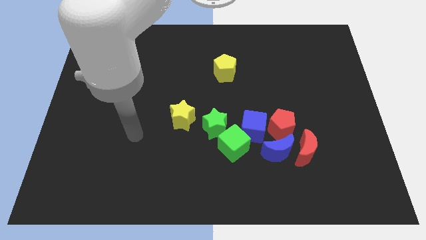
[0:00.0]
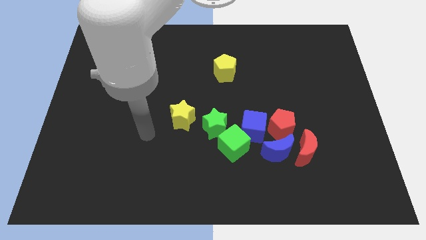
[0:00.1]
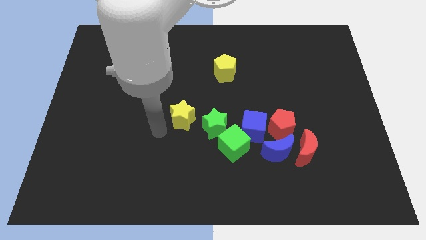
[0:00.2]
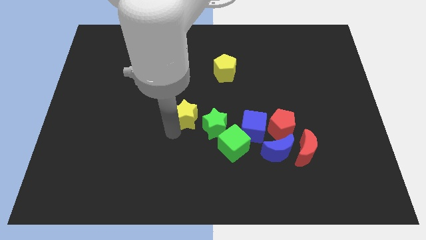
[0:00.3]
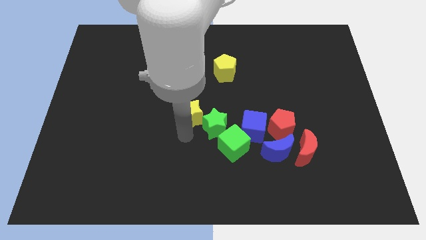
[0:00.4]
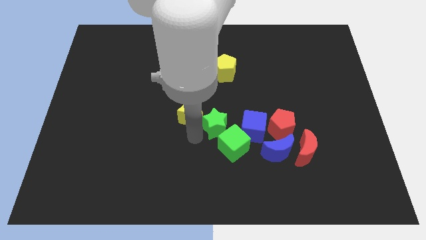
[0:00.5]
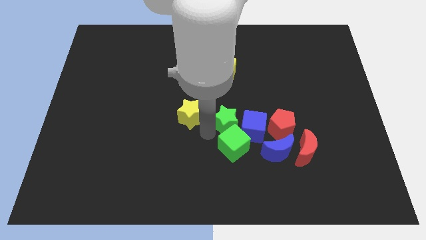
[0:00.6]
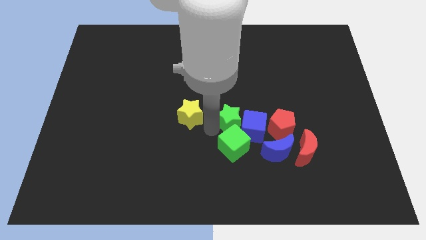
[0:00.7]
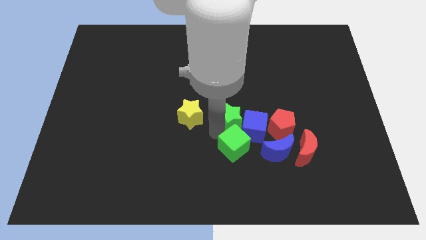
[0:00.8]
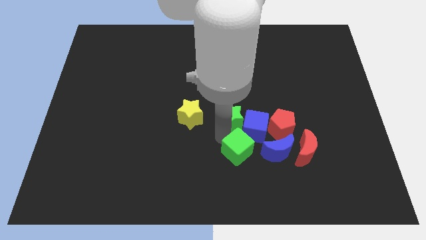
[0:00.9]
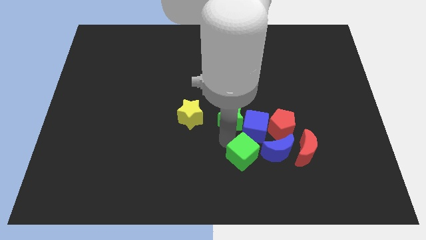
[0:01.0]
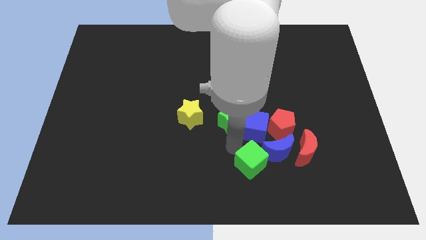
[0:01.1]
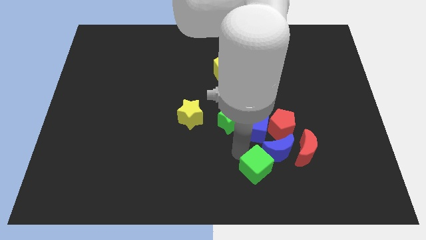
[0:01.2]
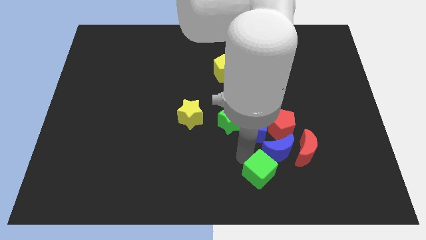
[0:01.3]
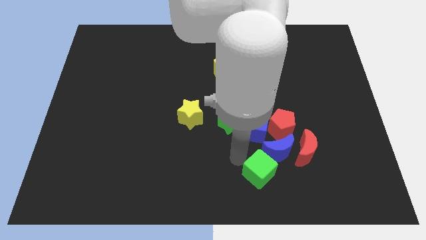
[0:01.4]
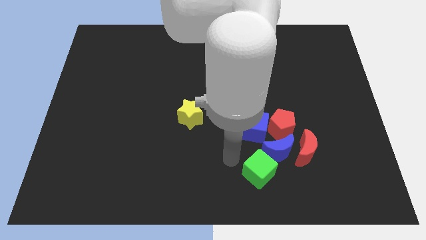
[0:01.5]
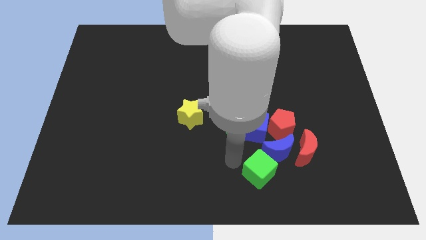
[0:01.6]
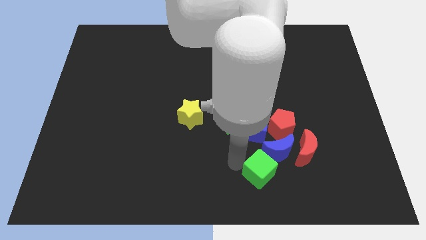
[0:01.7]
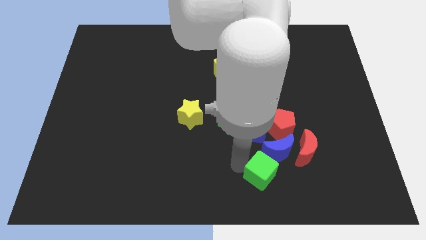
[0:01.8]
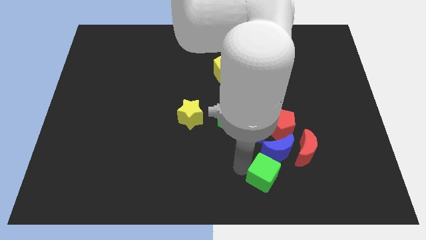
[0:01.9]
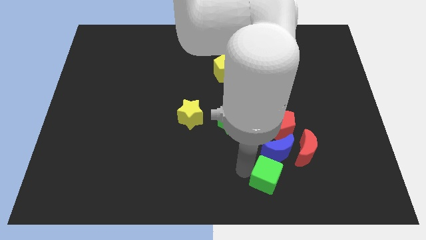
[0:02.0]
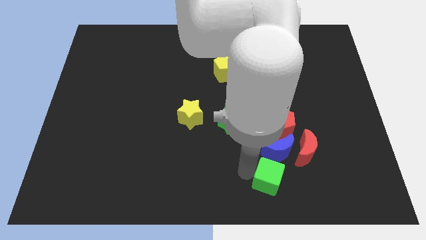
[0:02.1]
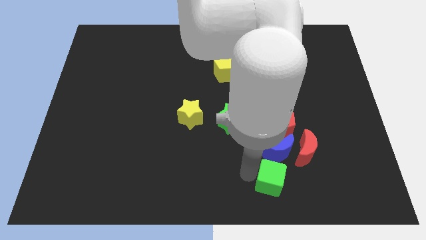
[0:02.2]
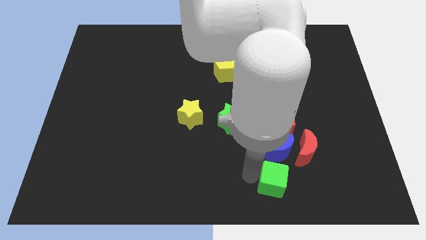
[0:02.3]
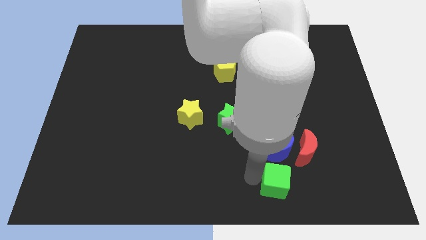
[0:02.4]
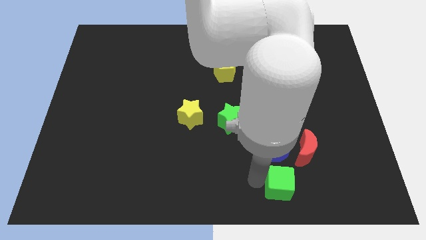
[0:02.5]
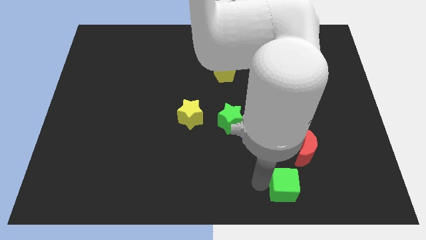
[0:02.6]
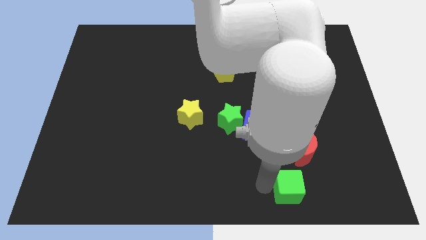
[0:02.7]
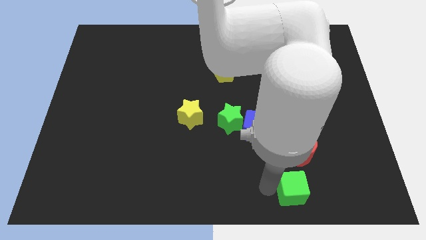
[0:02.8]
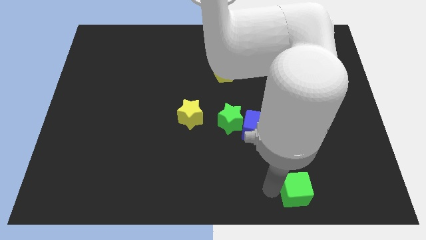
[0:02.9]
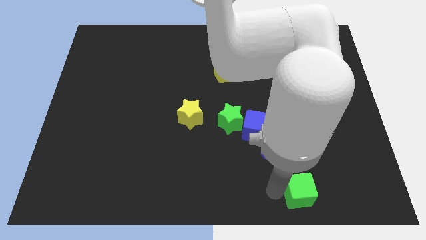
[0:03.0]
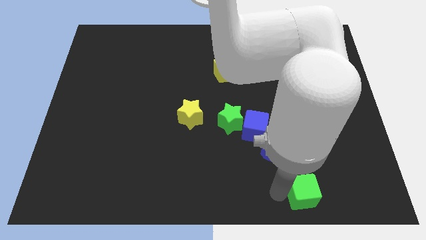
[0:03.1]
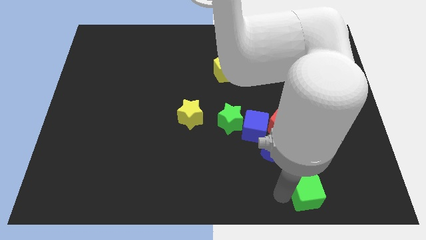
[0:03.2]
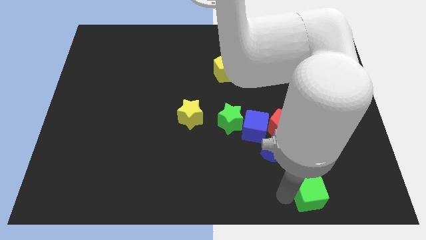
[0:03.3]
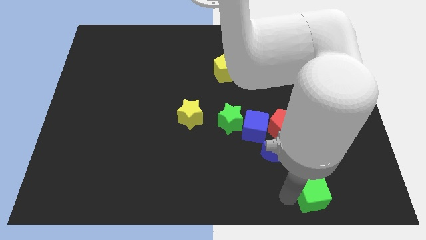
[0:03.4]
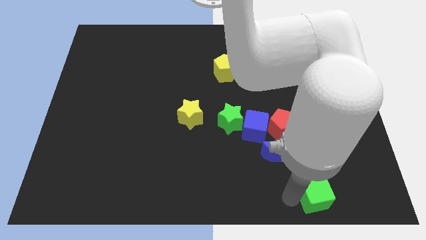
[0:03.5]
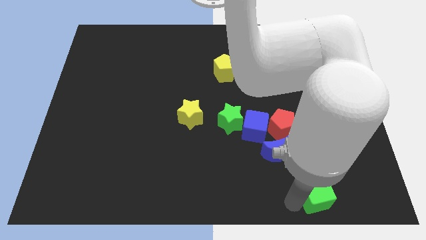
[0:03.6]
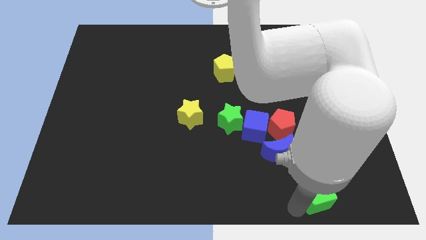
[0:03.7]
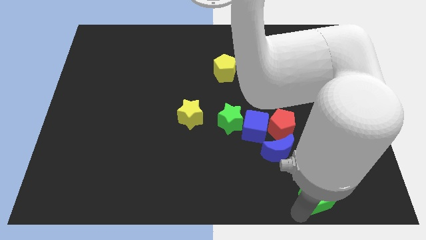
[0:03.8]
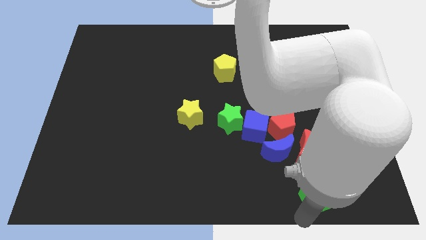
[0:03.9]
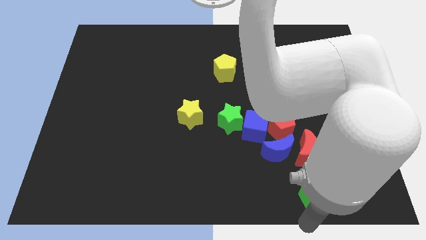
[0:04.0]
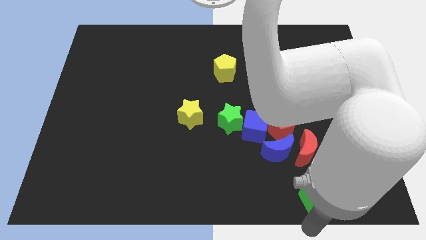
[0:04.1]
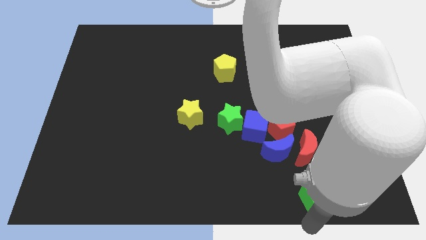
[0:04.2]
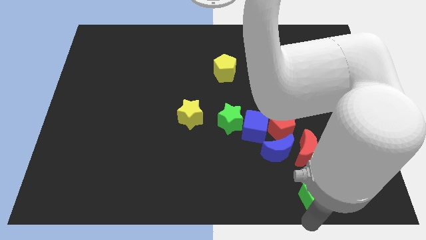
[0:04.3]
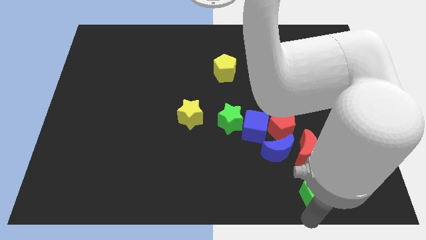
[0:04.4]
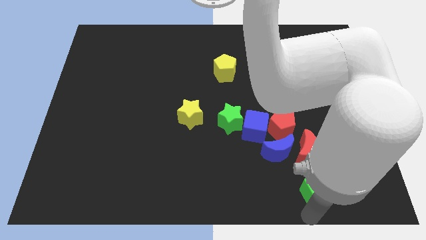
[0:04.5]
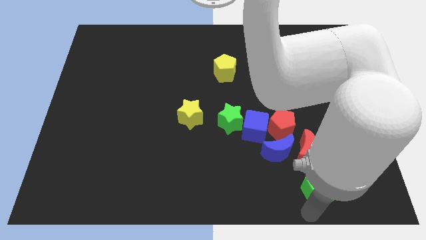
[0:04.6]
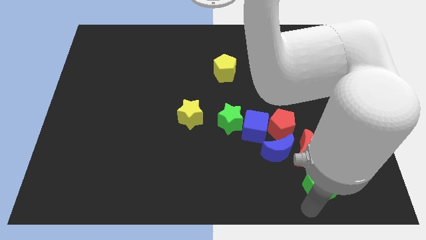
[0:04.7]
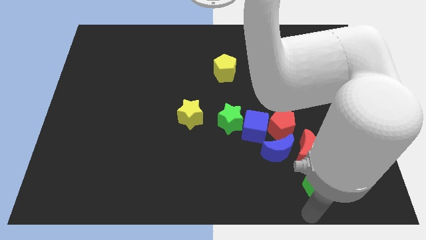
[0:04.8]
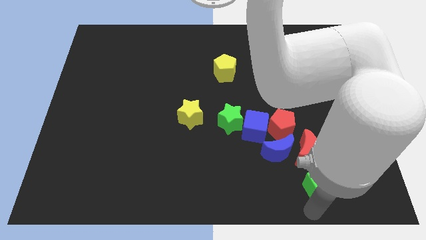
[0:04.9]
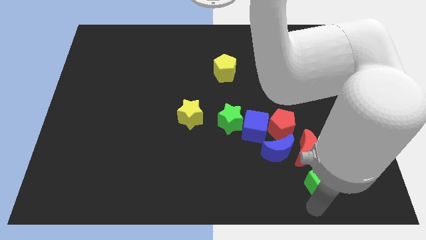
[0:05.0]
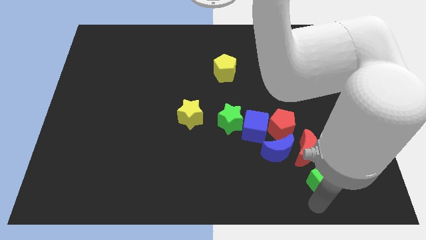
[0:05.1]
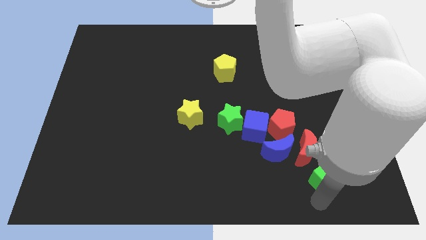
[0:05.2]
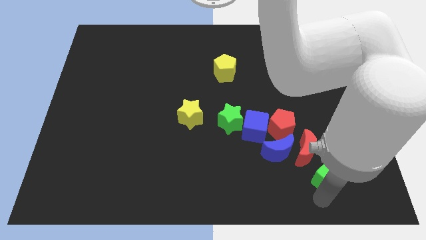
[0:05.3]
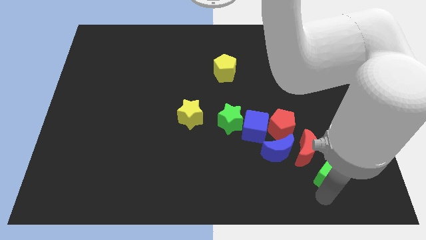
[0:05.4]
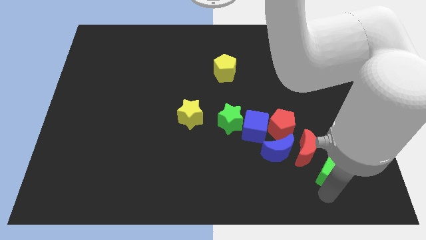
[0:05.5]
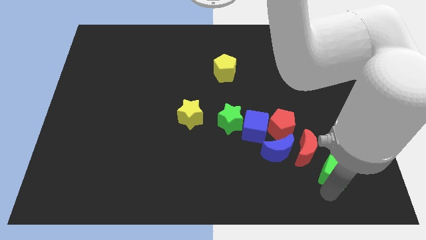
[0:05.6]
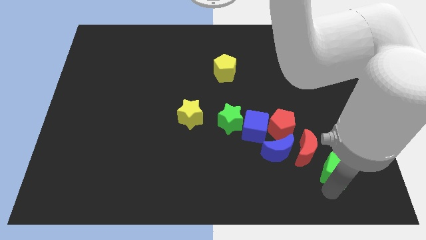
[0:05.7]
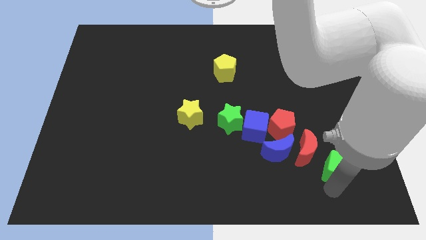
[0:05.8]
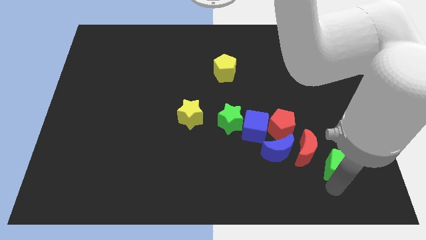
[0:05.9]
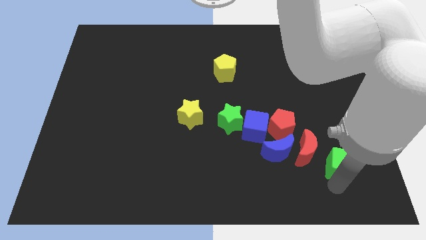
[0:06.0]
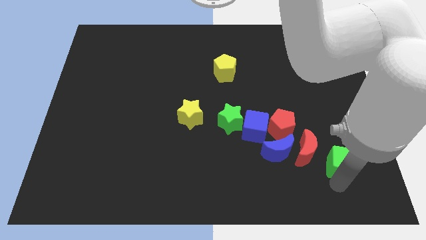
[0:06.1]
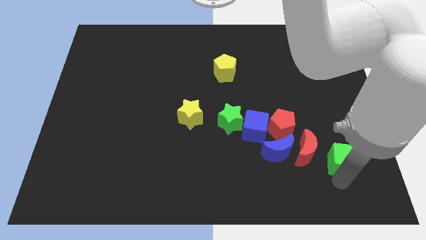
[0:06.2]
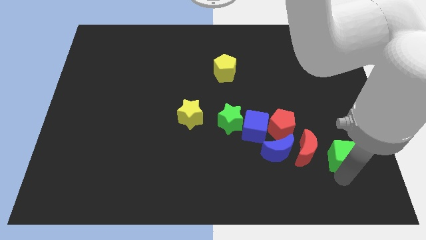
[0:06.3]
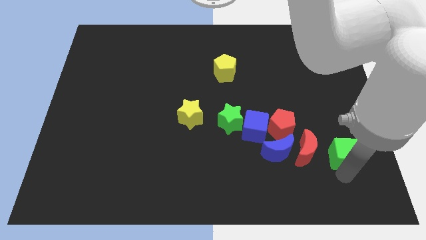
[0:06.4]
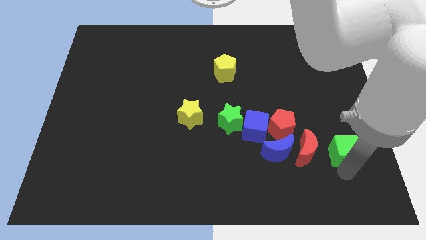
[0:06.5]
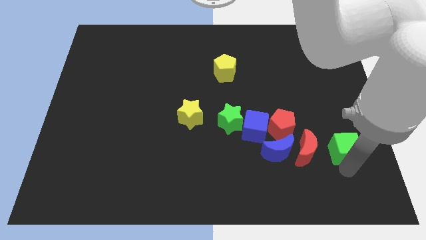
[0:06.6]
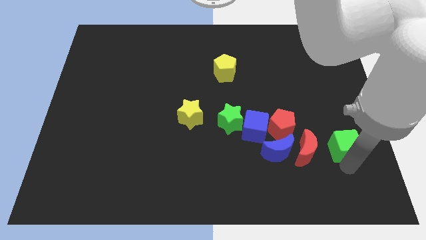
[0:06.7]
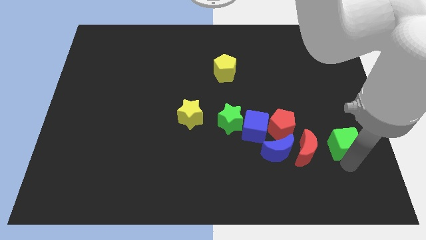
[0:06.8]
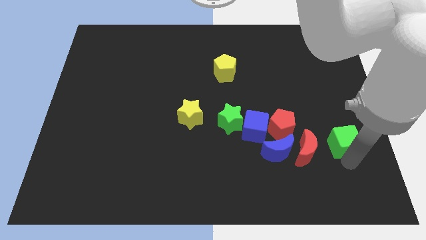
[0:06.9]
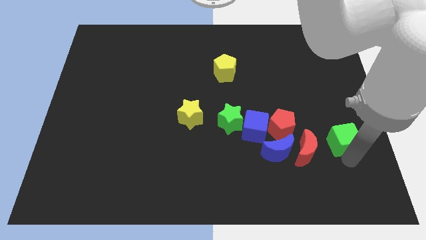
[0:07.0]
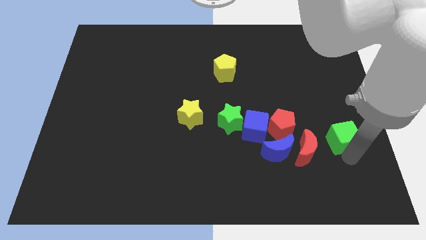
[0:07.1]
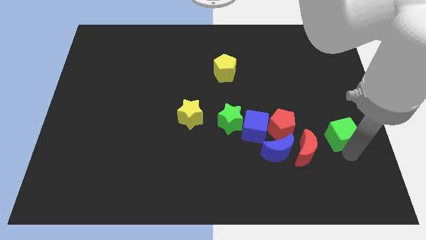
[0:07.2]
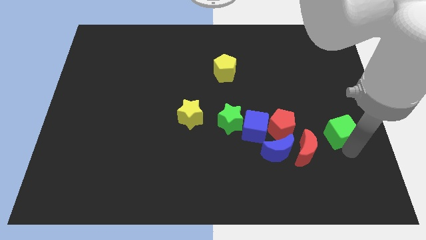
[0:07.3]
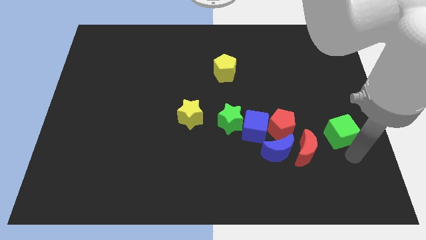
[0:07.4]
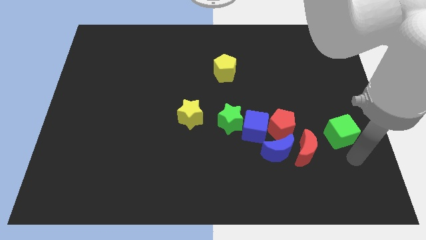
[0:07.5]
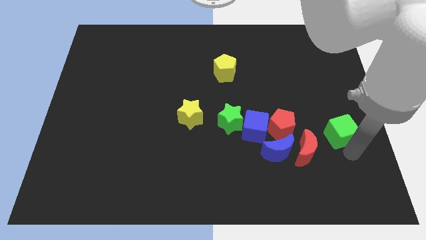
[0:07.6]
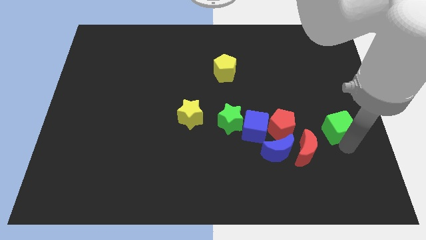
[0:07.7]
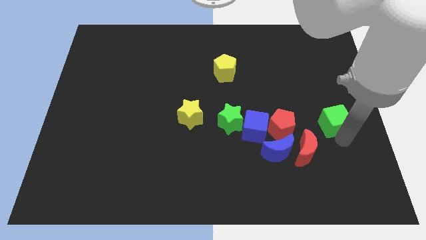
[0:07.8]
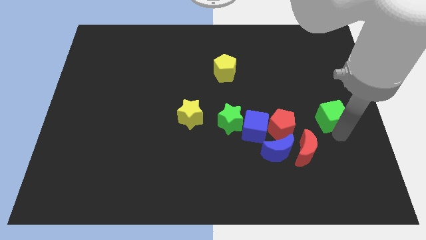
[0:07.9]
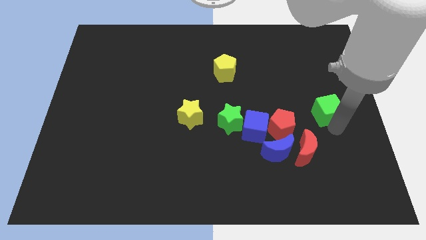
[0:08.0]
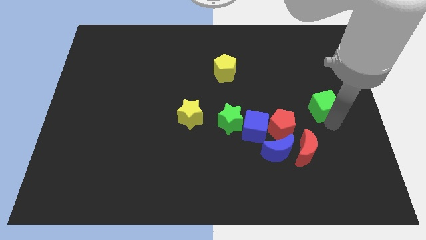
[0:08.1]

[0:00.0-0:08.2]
move the green cube up and then right
